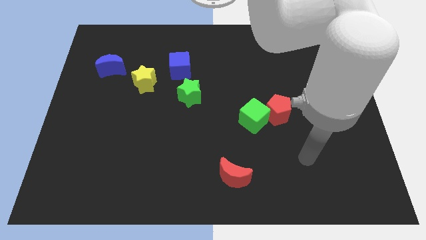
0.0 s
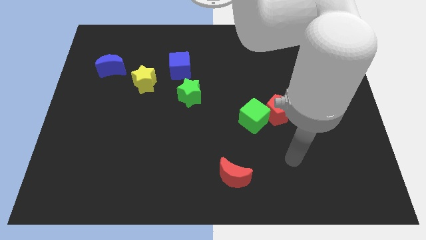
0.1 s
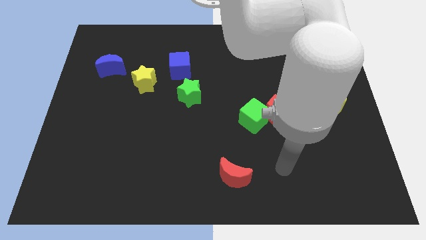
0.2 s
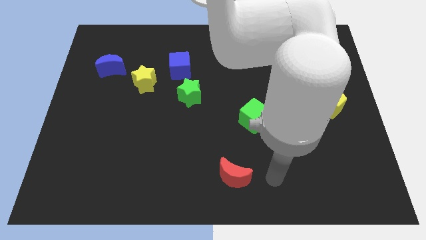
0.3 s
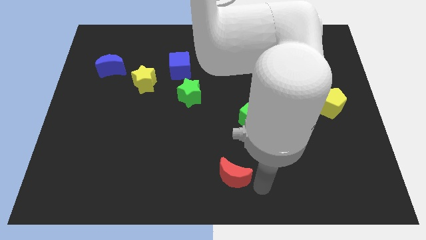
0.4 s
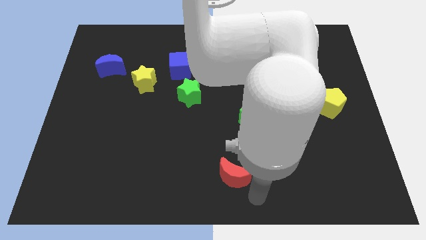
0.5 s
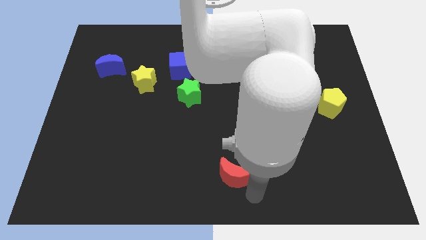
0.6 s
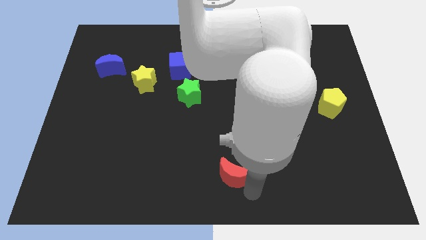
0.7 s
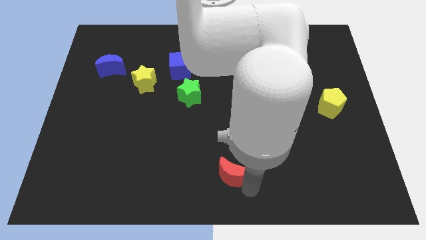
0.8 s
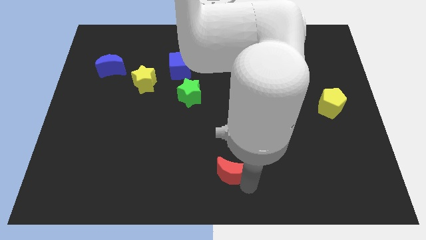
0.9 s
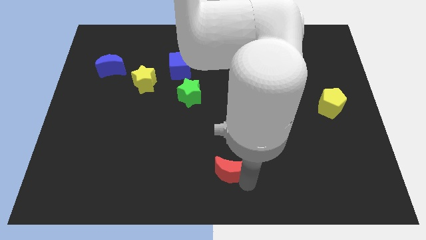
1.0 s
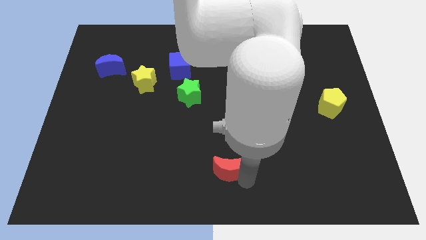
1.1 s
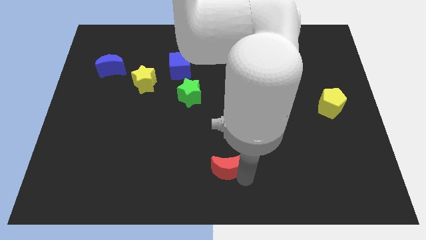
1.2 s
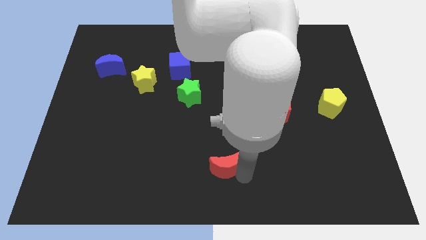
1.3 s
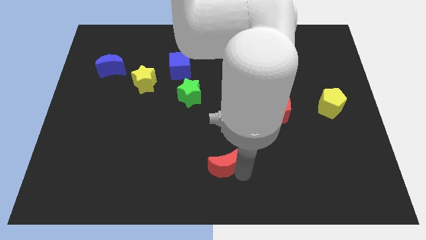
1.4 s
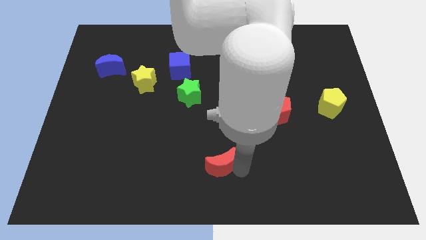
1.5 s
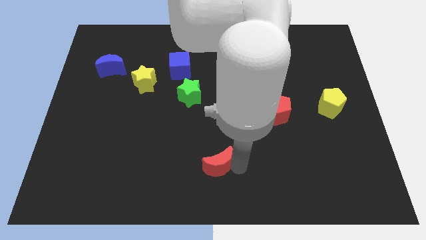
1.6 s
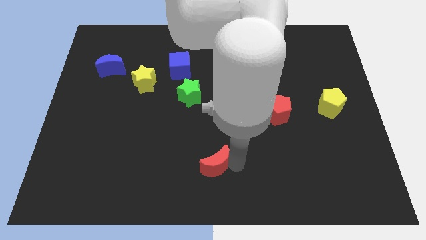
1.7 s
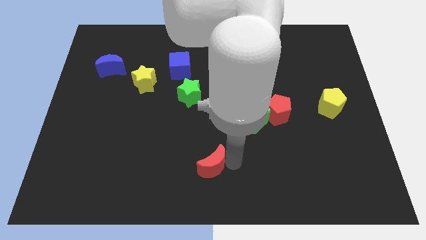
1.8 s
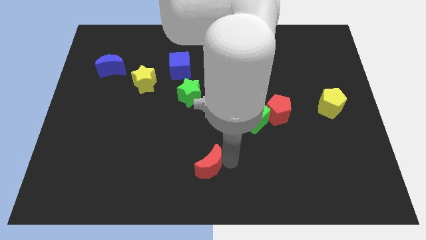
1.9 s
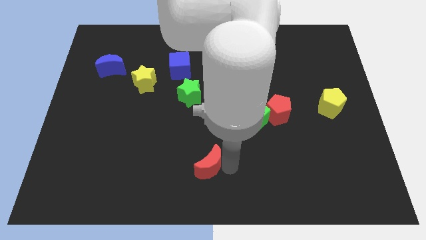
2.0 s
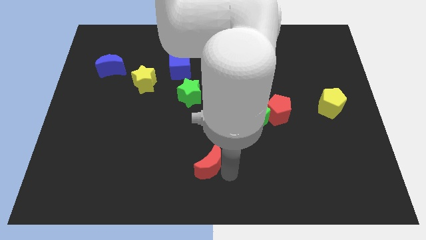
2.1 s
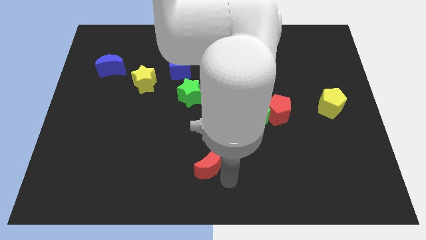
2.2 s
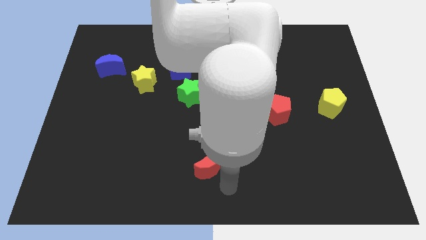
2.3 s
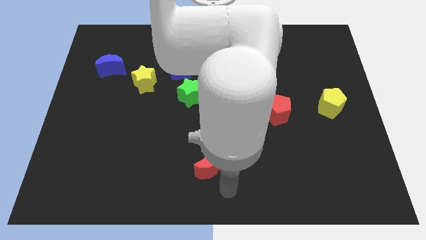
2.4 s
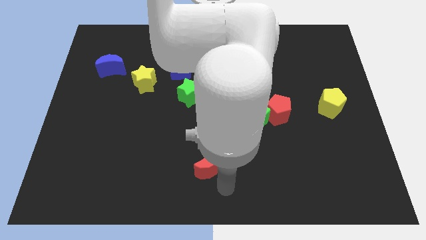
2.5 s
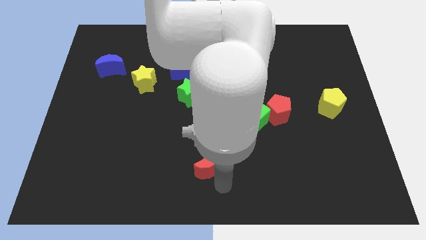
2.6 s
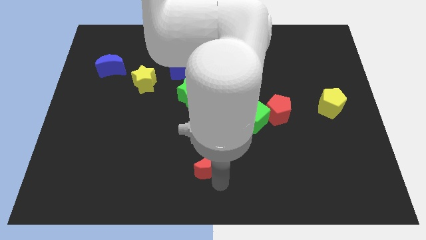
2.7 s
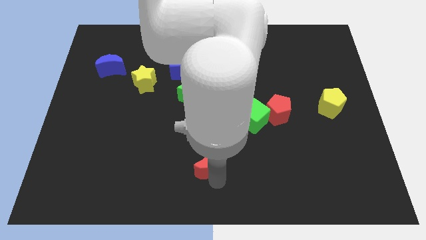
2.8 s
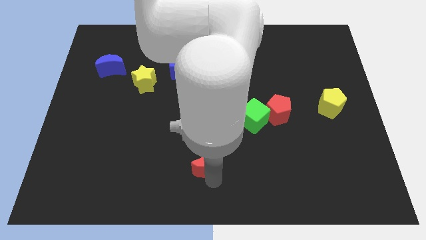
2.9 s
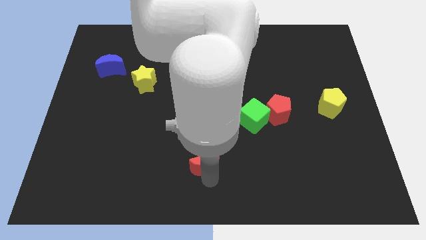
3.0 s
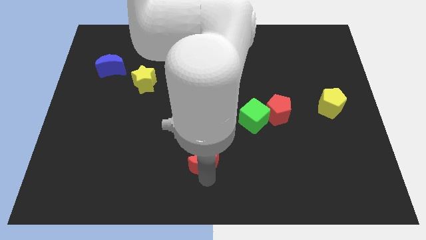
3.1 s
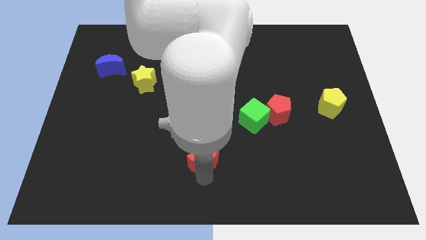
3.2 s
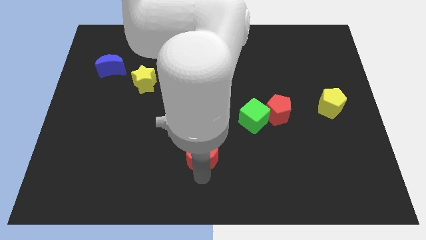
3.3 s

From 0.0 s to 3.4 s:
push the red moon diagonally upwards and left a bit

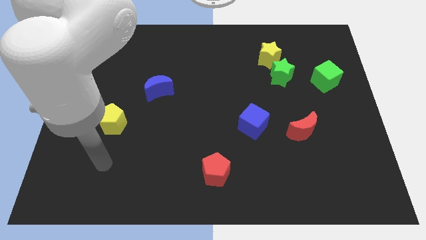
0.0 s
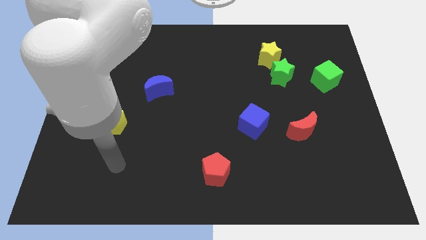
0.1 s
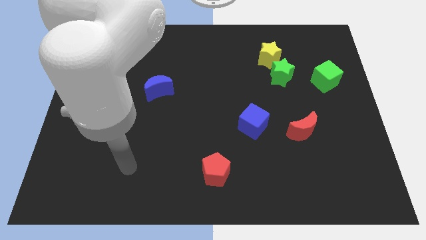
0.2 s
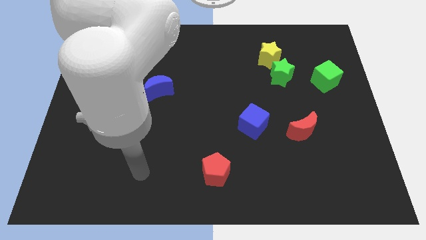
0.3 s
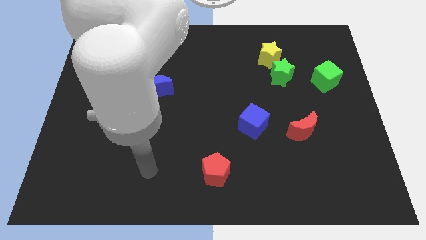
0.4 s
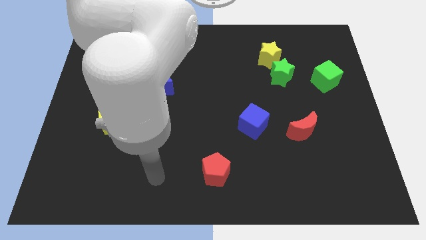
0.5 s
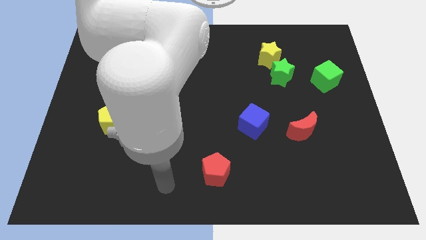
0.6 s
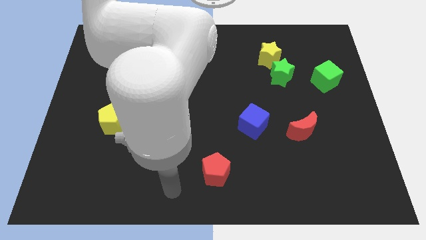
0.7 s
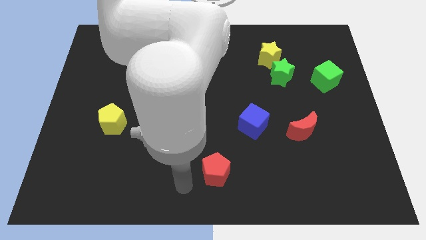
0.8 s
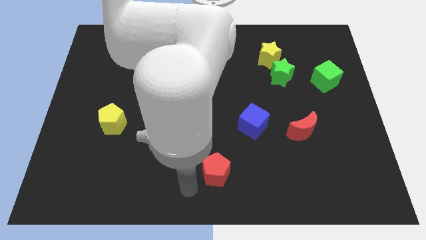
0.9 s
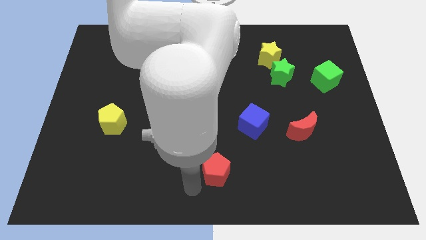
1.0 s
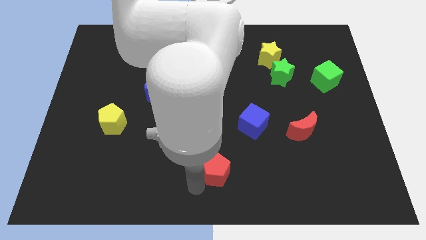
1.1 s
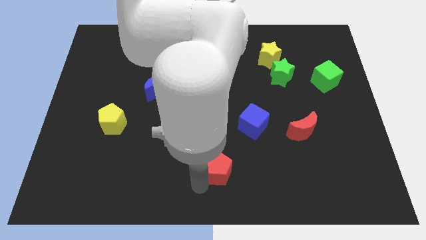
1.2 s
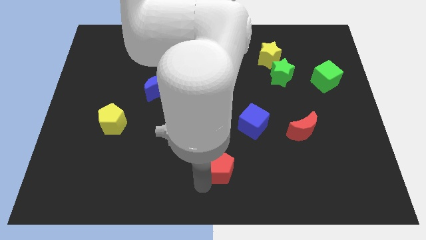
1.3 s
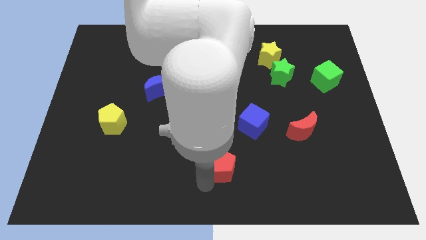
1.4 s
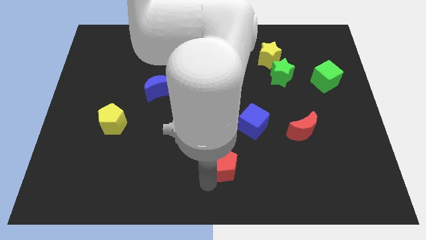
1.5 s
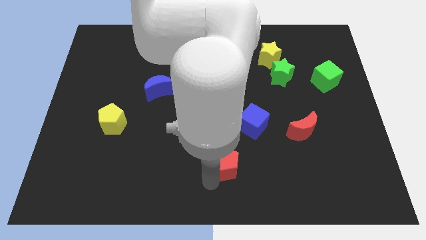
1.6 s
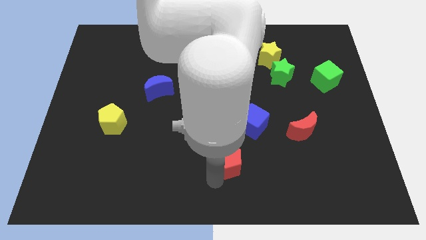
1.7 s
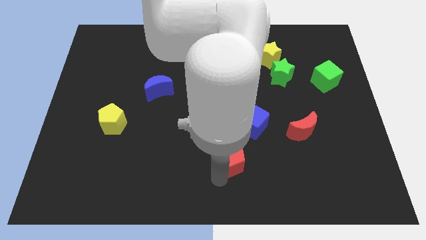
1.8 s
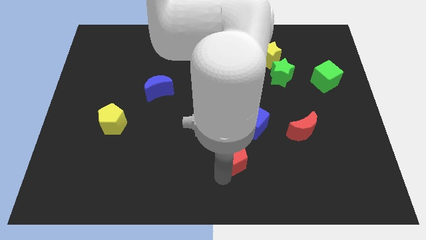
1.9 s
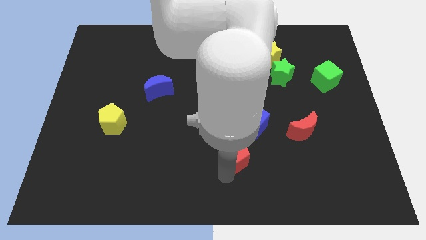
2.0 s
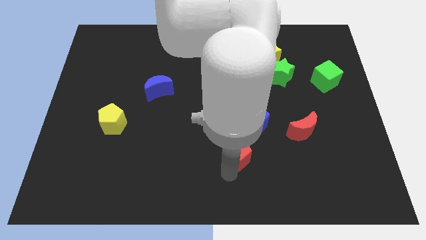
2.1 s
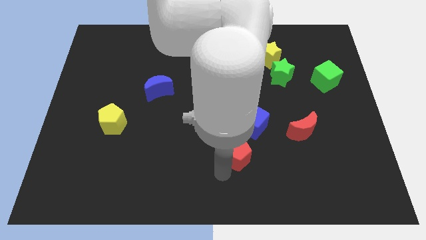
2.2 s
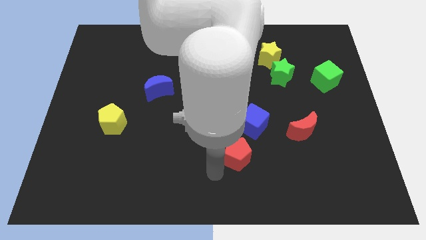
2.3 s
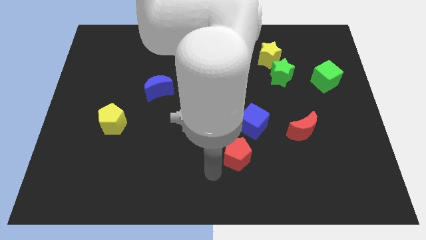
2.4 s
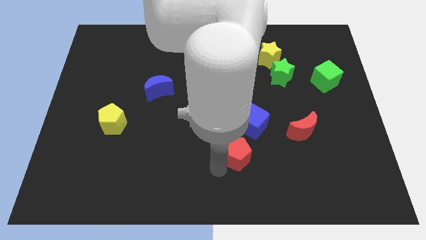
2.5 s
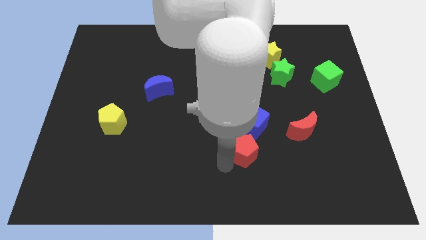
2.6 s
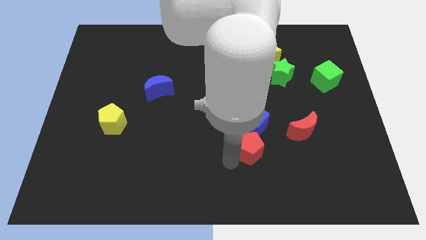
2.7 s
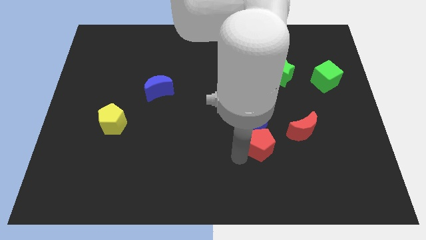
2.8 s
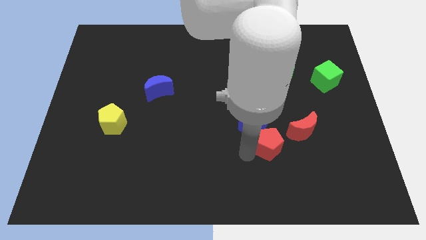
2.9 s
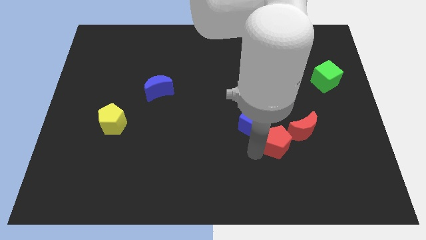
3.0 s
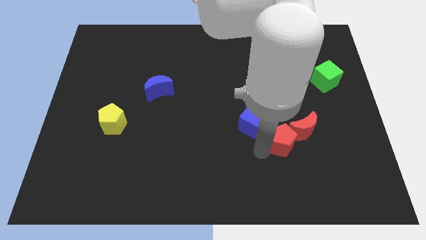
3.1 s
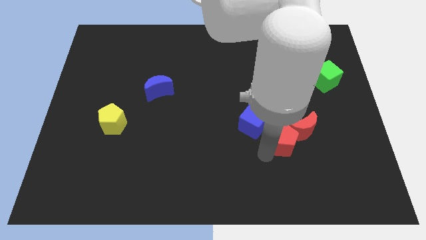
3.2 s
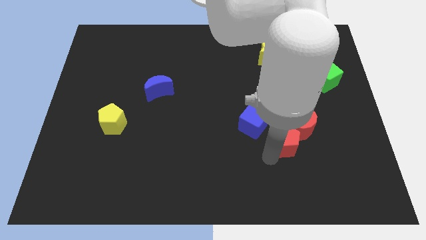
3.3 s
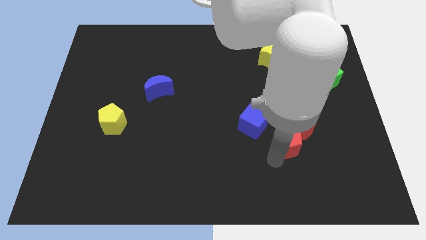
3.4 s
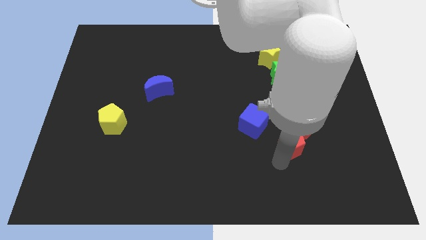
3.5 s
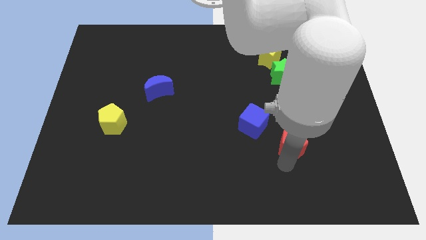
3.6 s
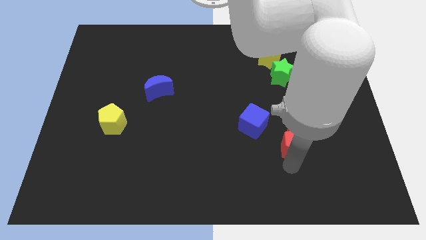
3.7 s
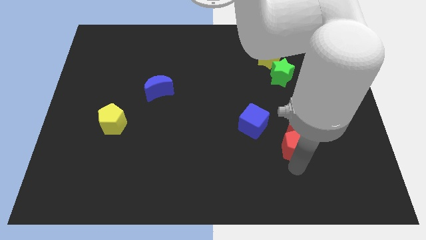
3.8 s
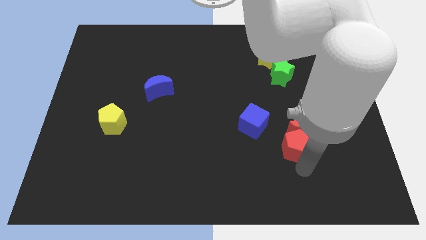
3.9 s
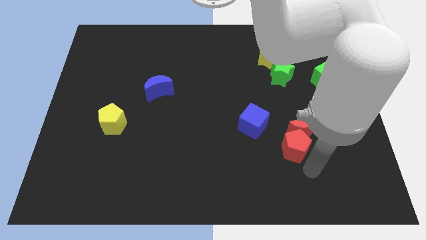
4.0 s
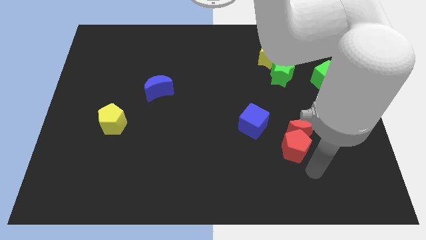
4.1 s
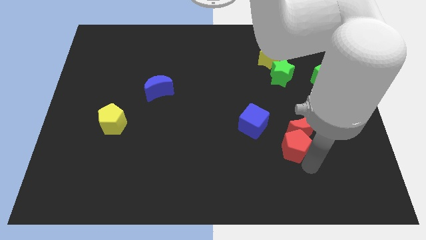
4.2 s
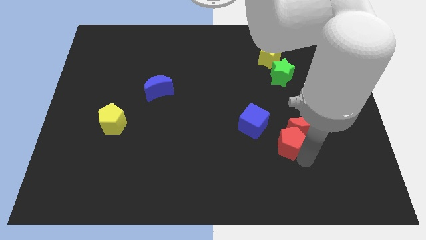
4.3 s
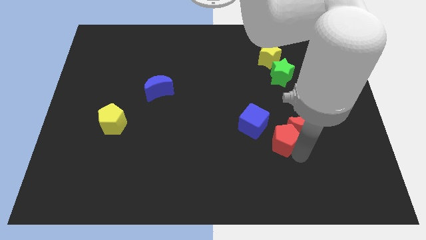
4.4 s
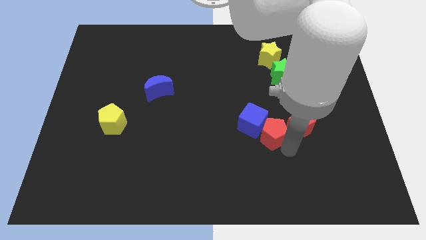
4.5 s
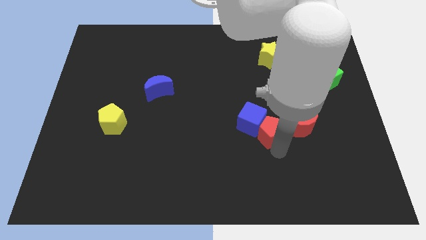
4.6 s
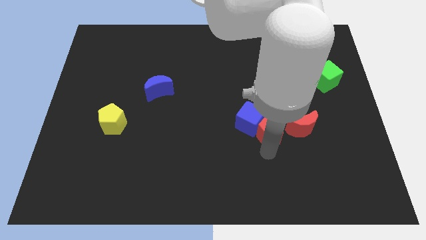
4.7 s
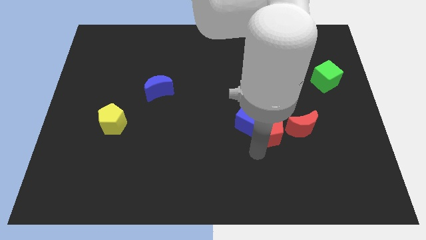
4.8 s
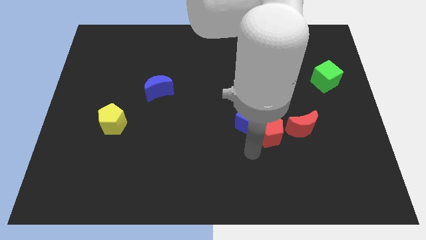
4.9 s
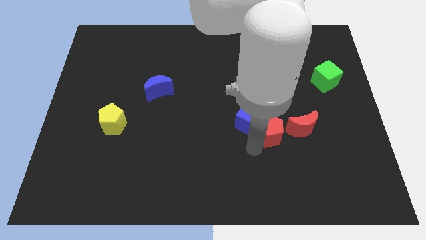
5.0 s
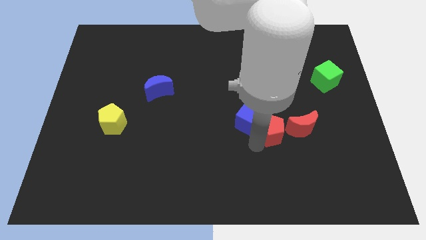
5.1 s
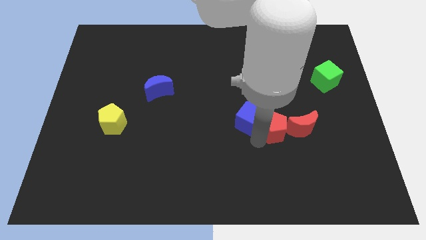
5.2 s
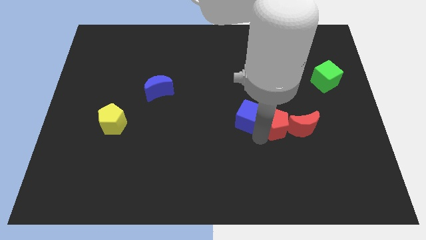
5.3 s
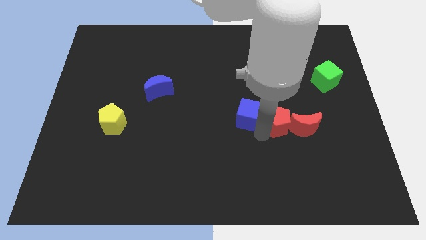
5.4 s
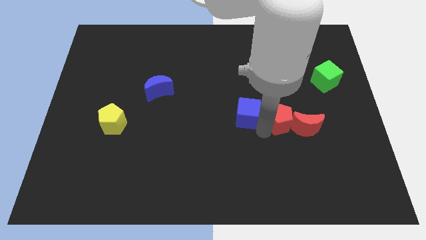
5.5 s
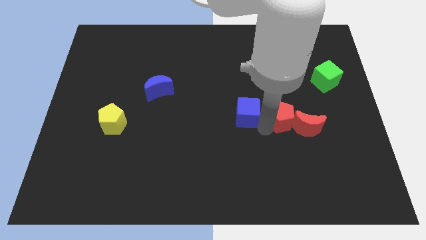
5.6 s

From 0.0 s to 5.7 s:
push the red pentagon upwards and right diagonally
